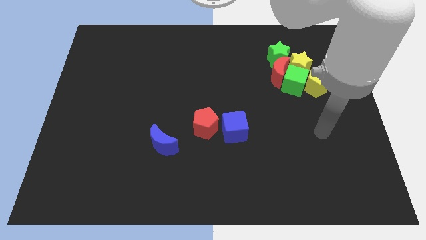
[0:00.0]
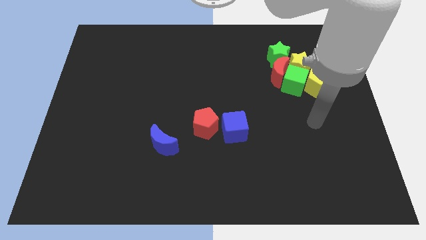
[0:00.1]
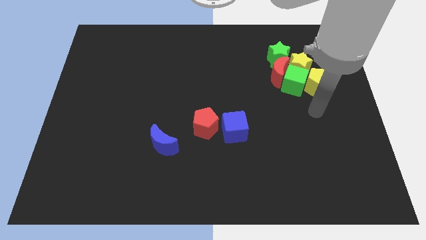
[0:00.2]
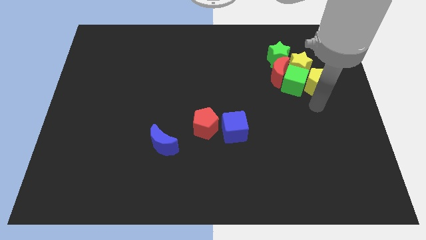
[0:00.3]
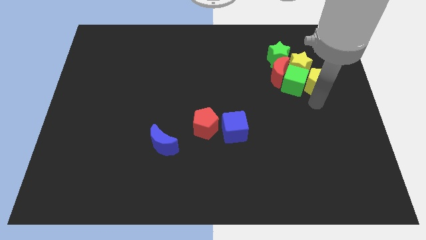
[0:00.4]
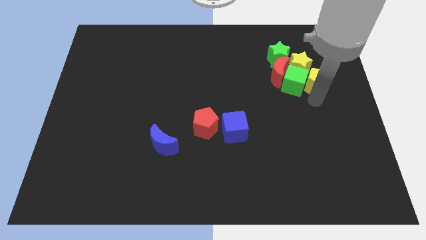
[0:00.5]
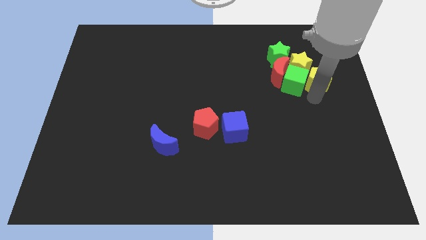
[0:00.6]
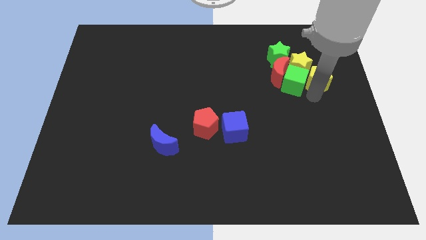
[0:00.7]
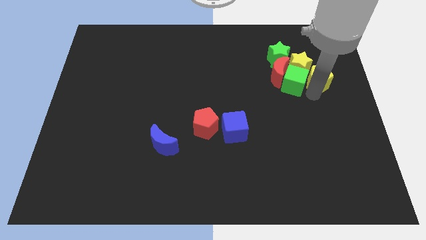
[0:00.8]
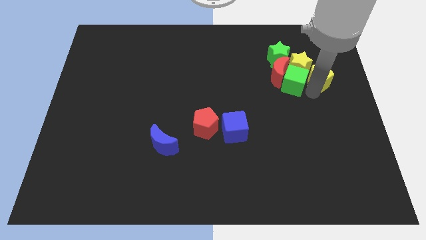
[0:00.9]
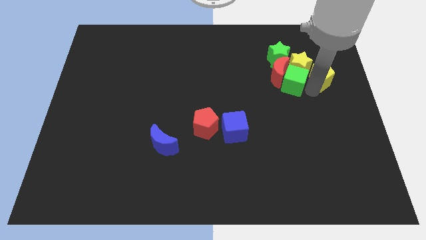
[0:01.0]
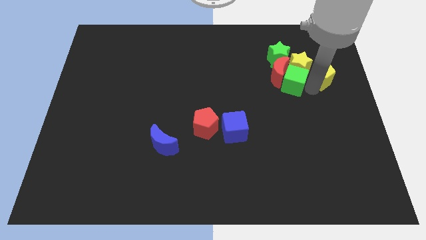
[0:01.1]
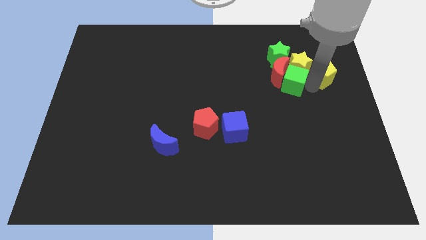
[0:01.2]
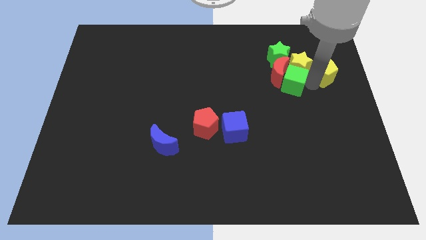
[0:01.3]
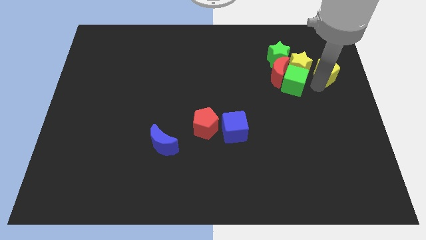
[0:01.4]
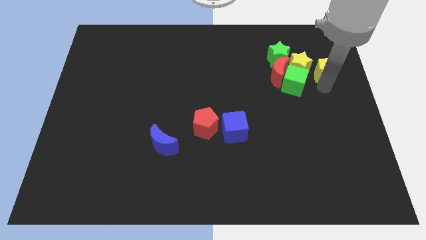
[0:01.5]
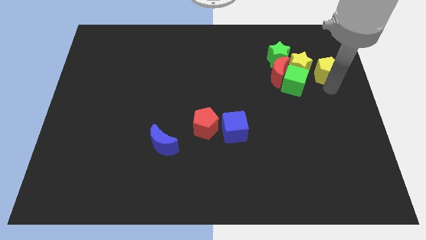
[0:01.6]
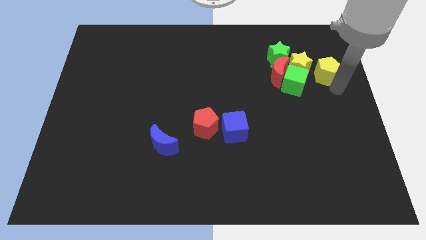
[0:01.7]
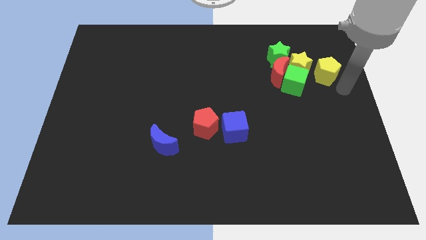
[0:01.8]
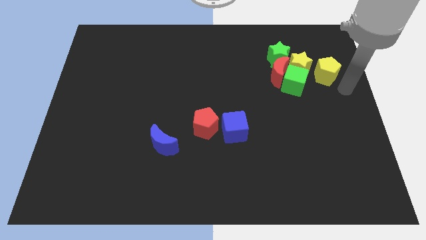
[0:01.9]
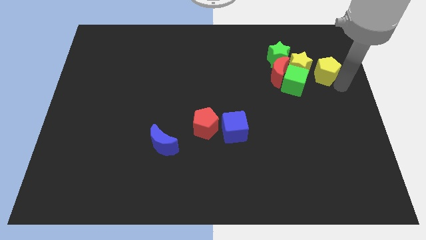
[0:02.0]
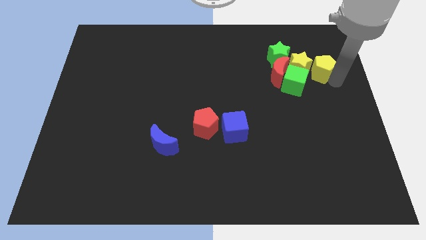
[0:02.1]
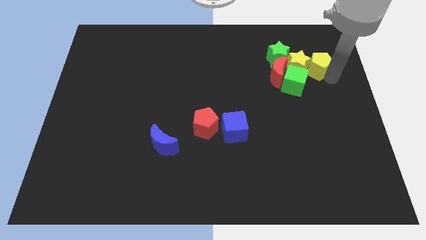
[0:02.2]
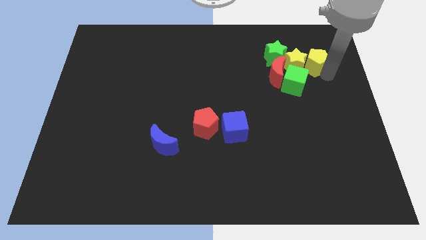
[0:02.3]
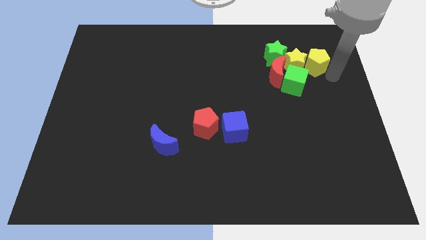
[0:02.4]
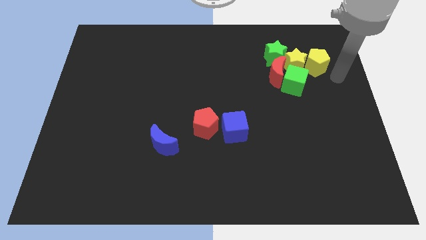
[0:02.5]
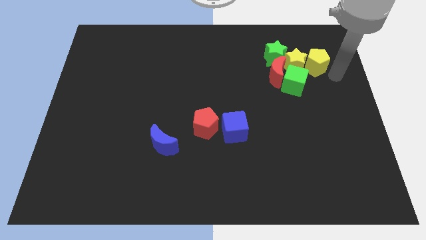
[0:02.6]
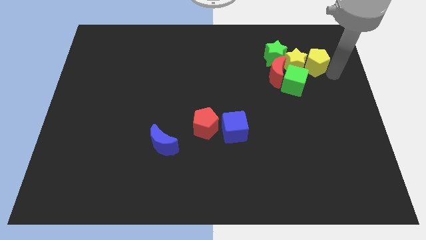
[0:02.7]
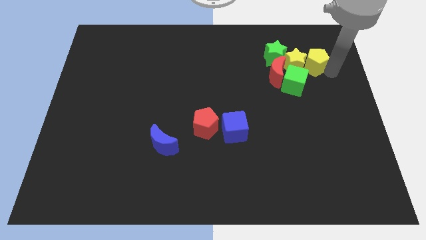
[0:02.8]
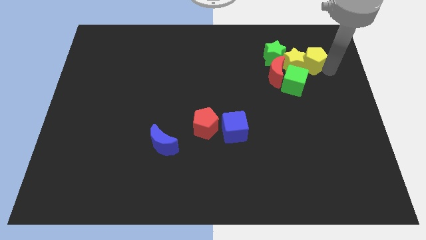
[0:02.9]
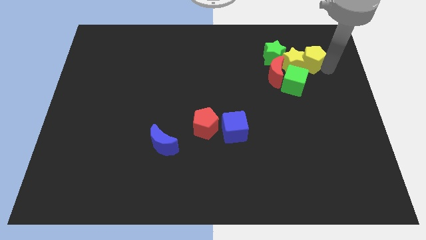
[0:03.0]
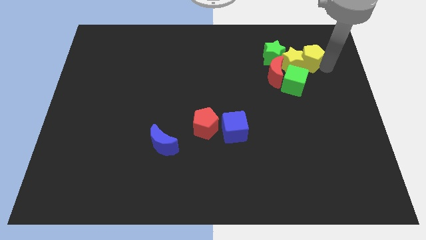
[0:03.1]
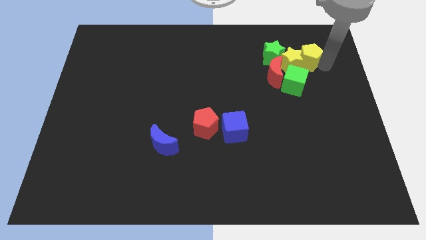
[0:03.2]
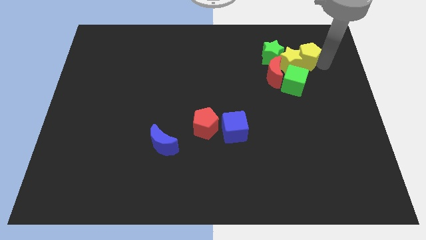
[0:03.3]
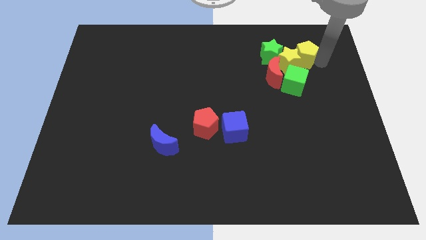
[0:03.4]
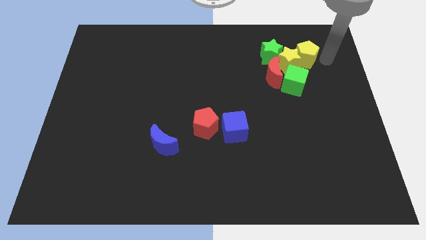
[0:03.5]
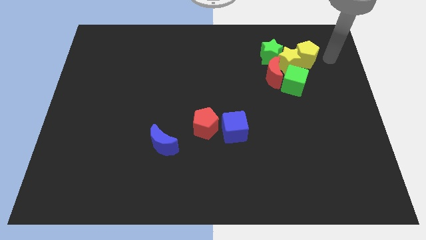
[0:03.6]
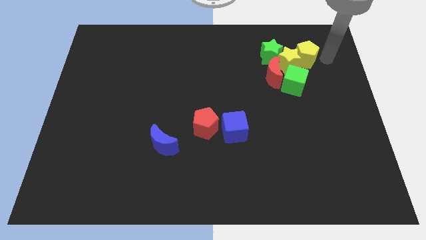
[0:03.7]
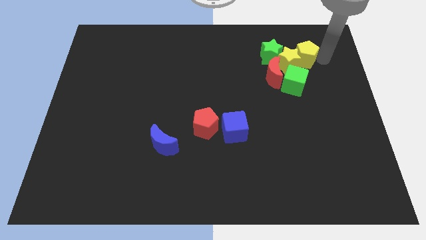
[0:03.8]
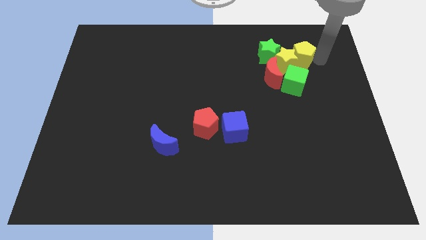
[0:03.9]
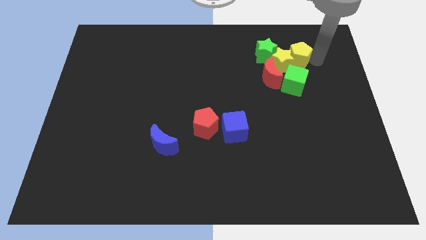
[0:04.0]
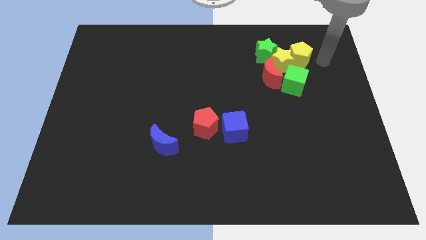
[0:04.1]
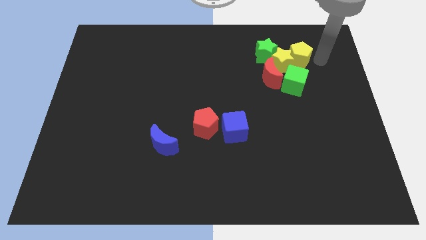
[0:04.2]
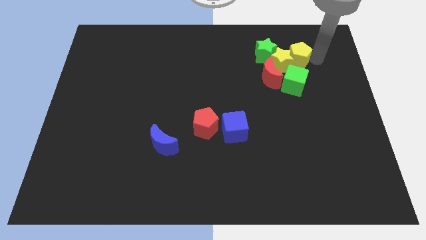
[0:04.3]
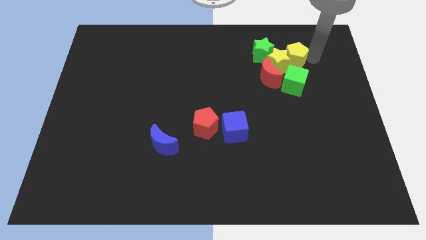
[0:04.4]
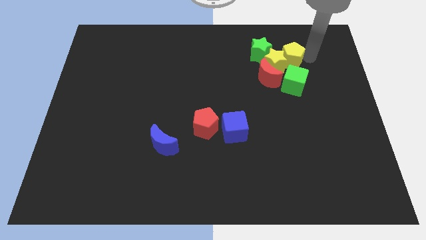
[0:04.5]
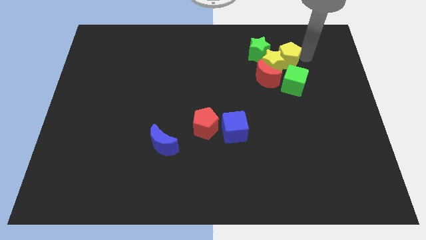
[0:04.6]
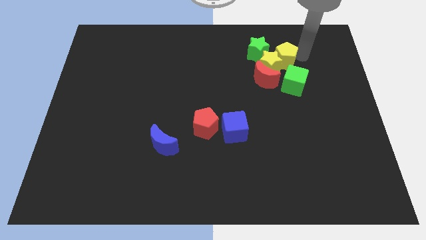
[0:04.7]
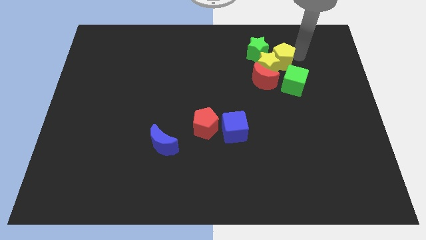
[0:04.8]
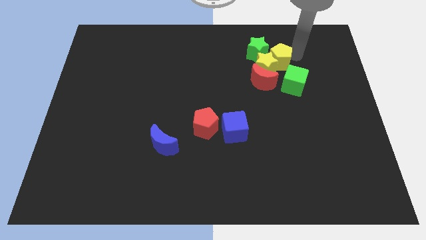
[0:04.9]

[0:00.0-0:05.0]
move the yellow pentagon next to the green star

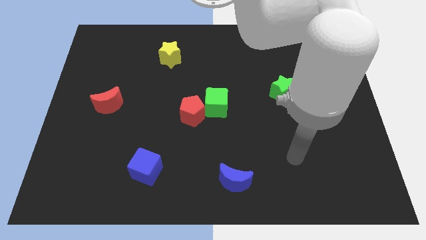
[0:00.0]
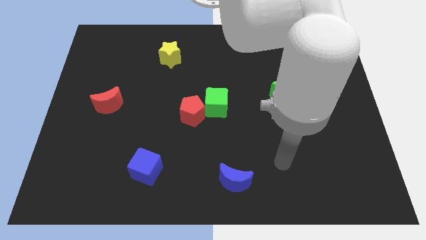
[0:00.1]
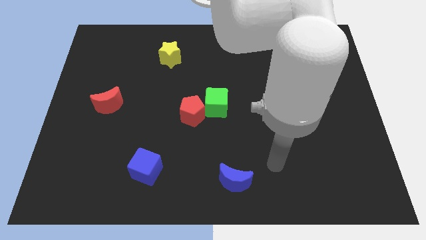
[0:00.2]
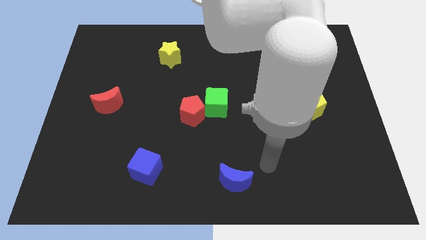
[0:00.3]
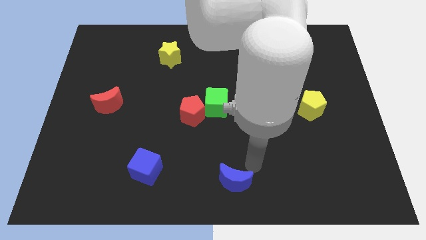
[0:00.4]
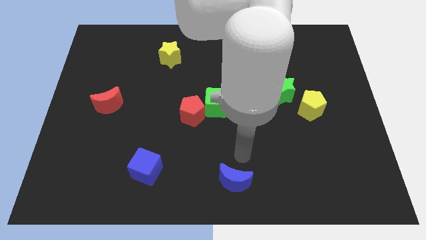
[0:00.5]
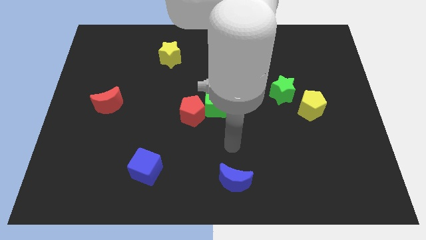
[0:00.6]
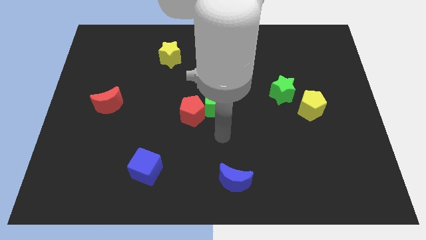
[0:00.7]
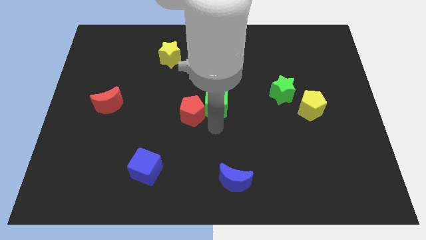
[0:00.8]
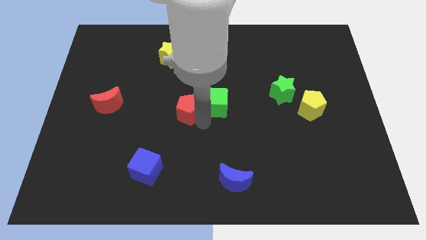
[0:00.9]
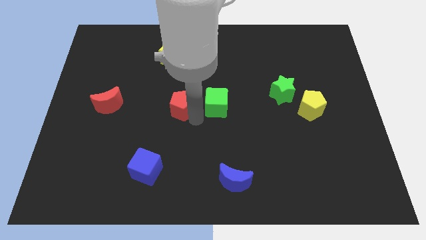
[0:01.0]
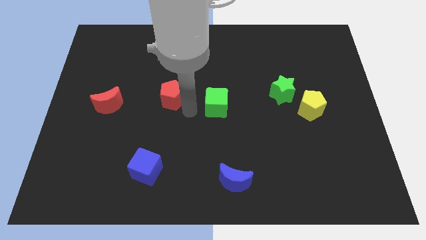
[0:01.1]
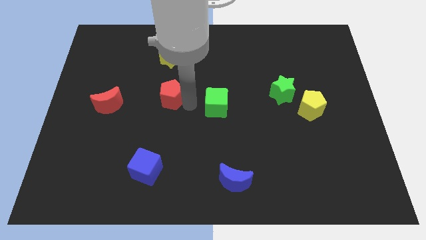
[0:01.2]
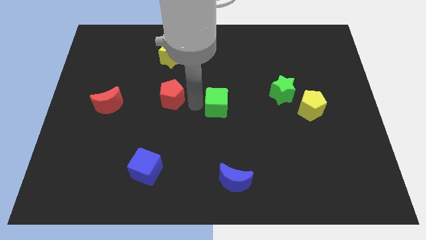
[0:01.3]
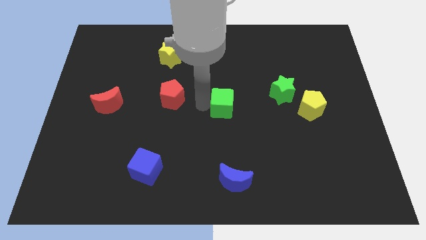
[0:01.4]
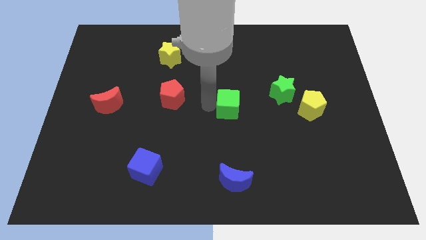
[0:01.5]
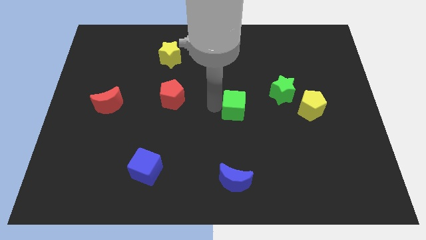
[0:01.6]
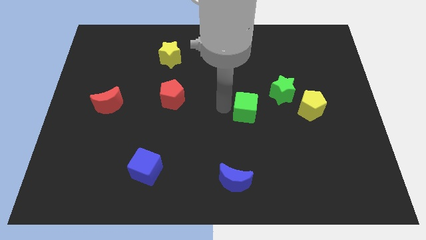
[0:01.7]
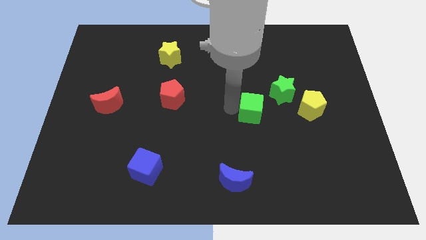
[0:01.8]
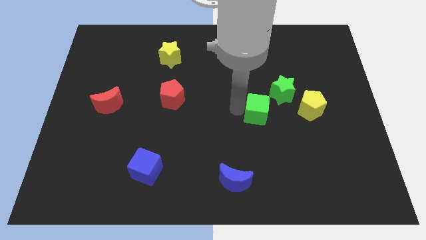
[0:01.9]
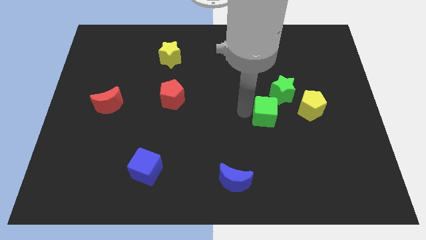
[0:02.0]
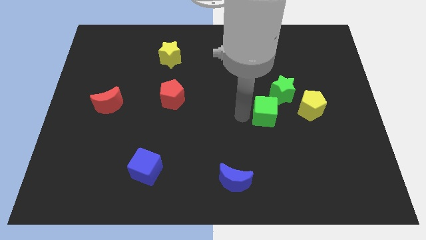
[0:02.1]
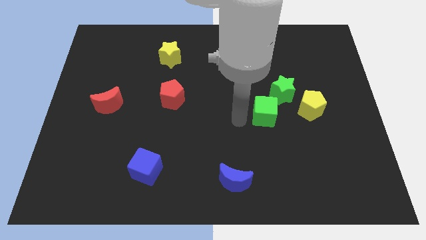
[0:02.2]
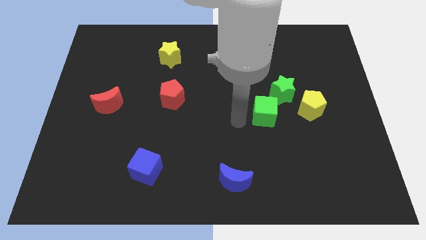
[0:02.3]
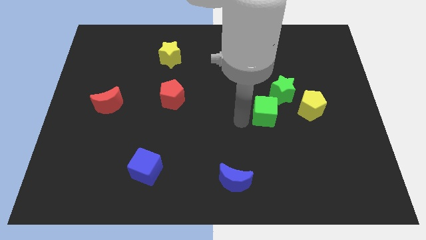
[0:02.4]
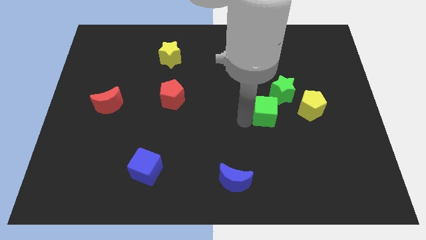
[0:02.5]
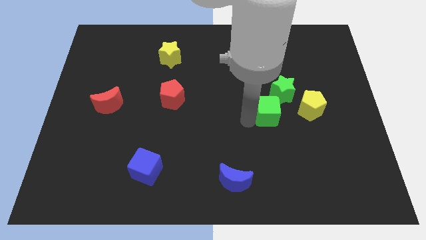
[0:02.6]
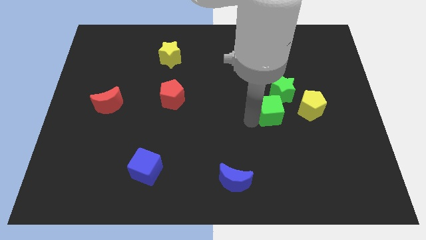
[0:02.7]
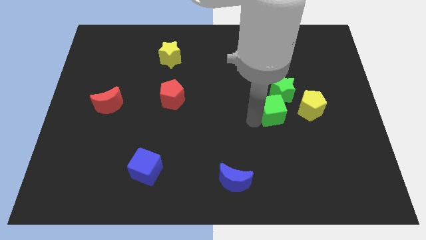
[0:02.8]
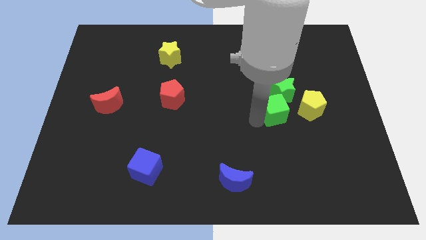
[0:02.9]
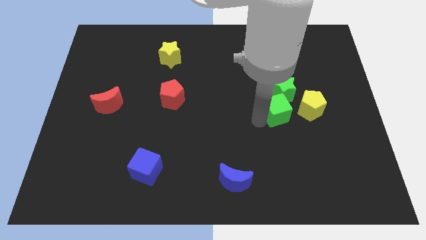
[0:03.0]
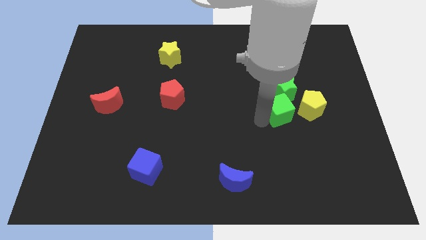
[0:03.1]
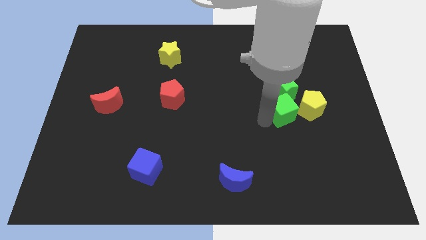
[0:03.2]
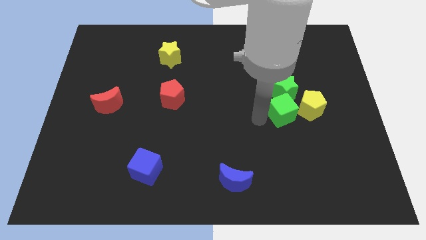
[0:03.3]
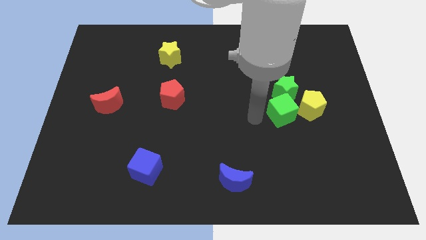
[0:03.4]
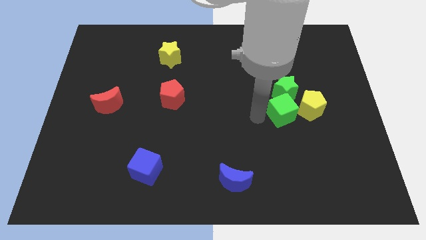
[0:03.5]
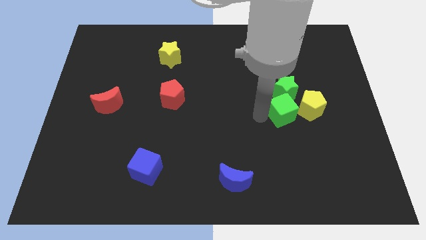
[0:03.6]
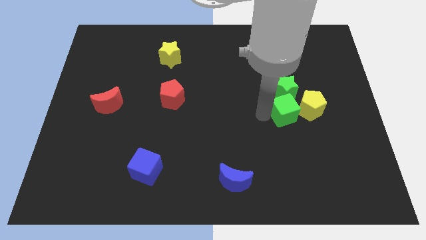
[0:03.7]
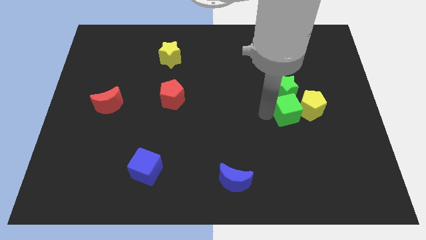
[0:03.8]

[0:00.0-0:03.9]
move the green cube close to the yellow pentagon
